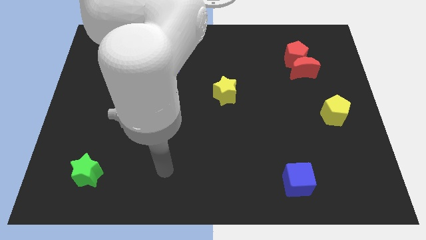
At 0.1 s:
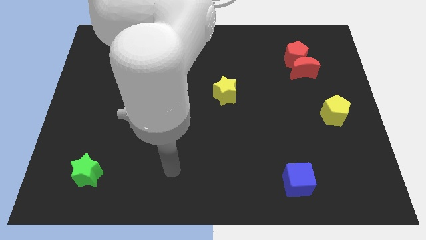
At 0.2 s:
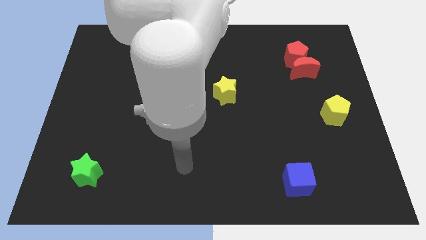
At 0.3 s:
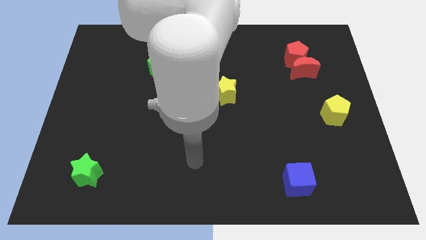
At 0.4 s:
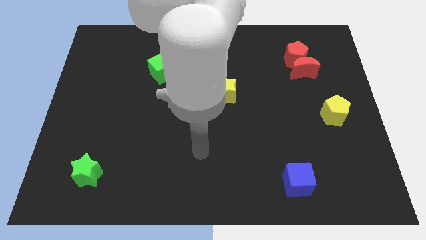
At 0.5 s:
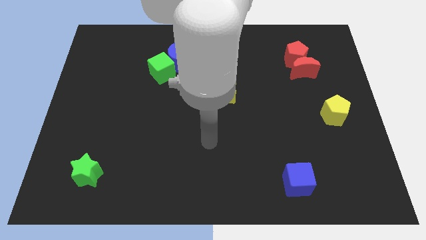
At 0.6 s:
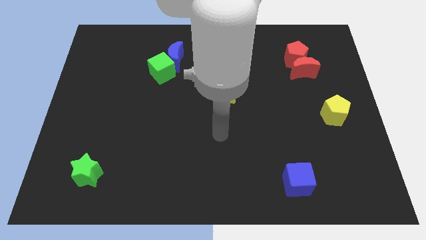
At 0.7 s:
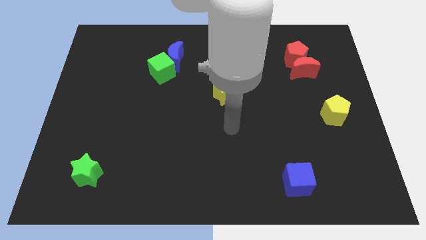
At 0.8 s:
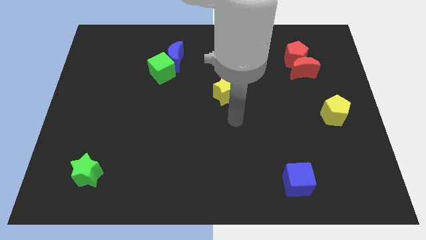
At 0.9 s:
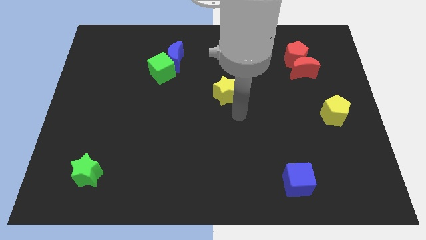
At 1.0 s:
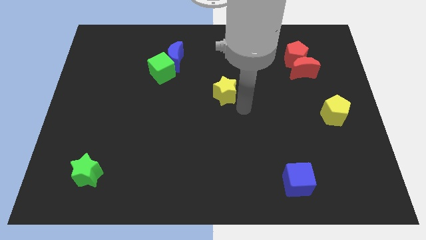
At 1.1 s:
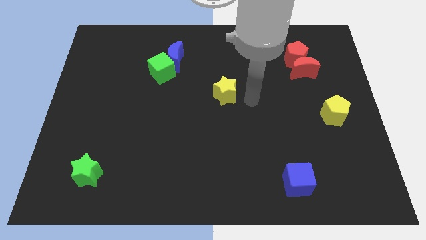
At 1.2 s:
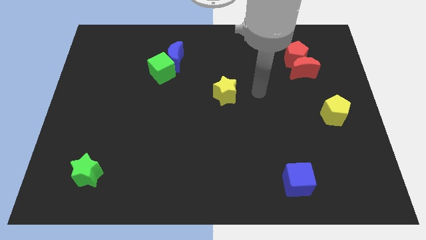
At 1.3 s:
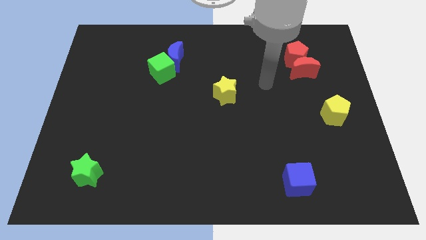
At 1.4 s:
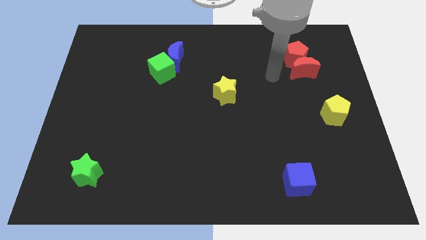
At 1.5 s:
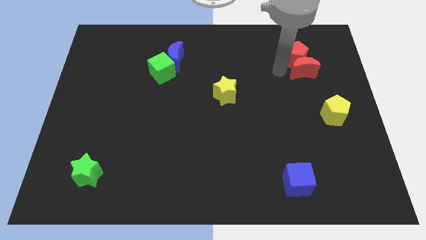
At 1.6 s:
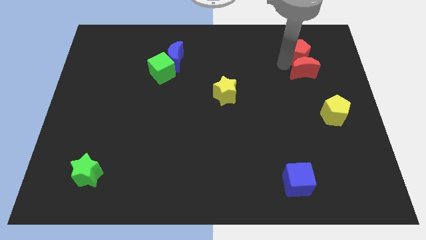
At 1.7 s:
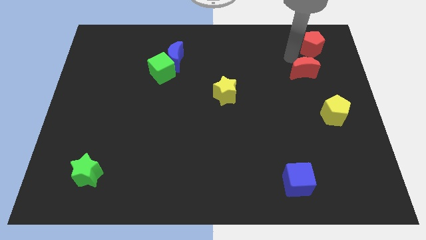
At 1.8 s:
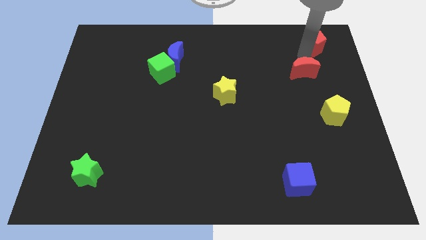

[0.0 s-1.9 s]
separate the red moon from the red pentagon

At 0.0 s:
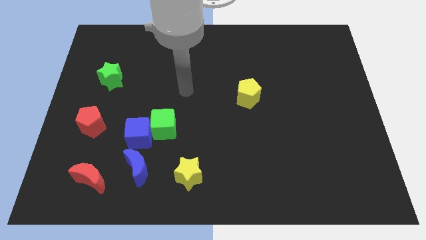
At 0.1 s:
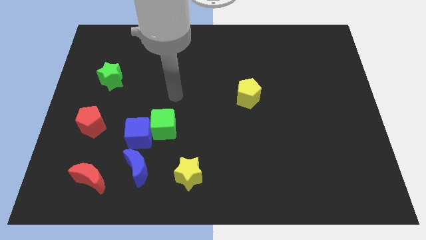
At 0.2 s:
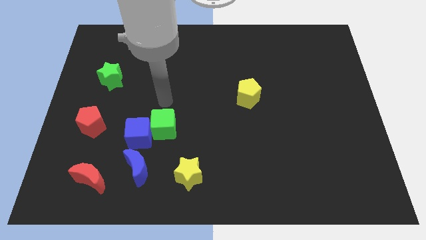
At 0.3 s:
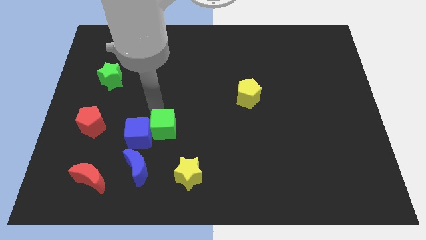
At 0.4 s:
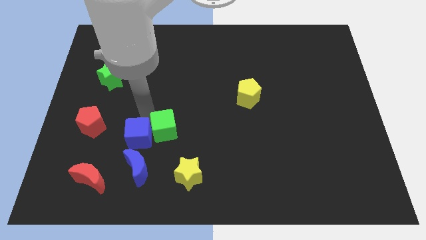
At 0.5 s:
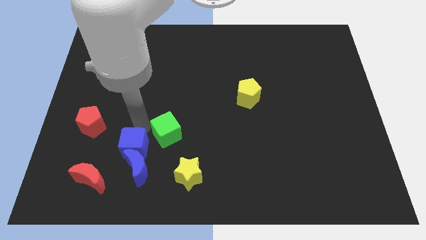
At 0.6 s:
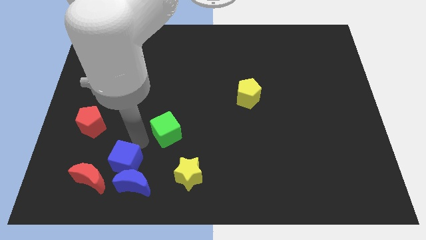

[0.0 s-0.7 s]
pull the green cube apart from the blue cube

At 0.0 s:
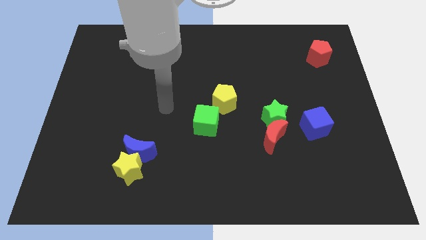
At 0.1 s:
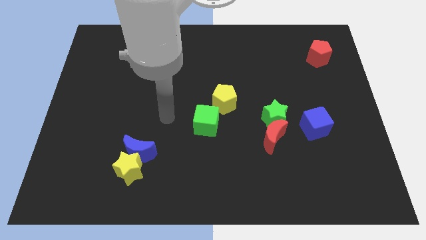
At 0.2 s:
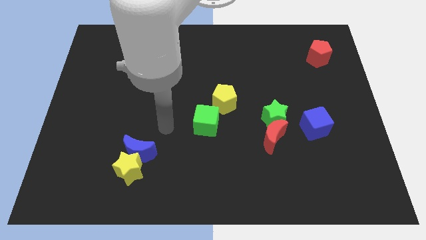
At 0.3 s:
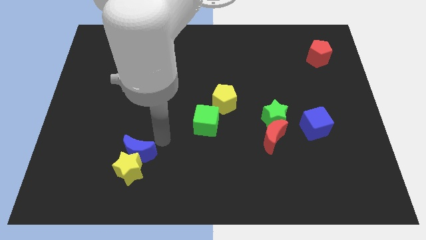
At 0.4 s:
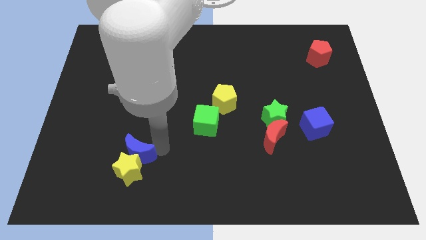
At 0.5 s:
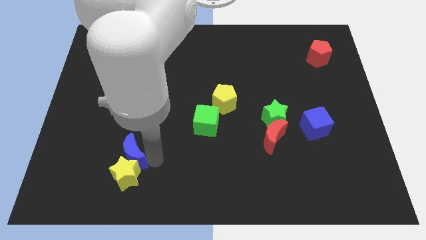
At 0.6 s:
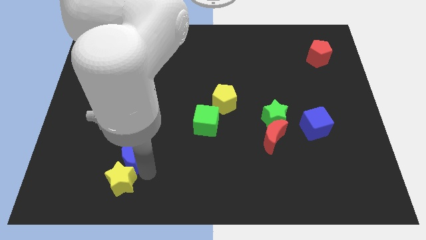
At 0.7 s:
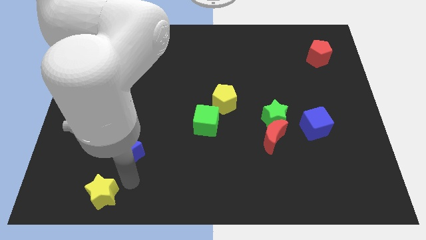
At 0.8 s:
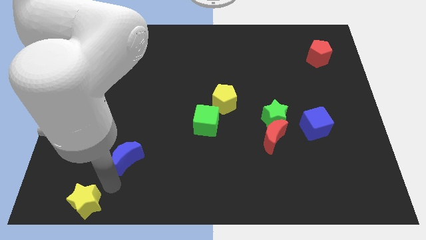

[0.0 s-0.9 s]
move the blue moon away from the yellow star

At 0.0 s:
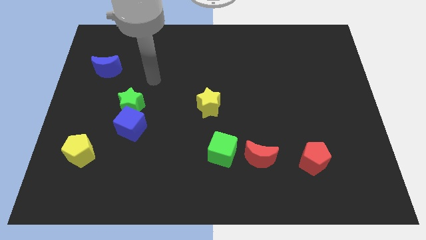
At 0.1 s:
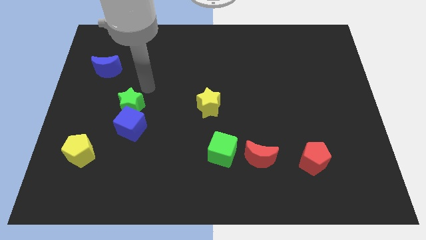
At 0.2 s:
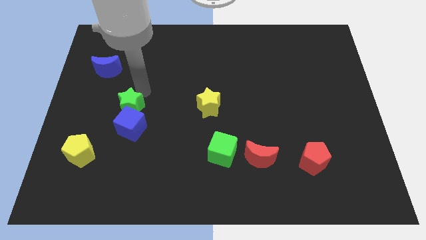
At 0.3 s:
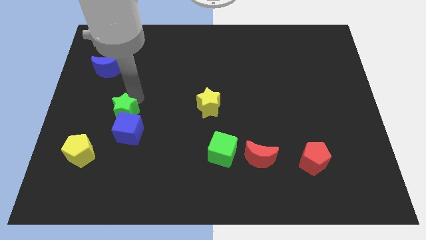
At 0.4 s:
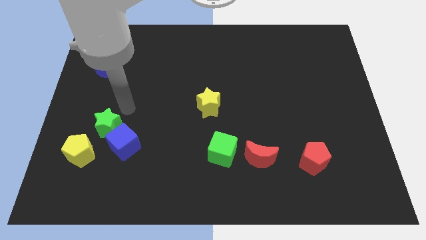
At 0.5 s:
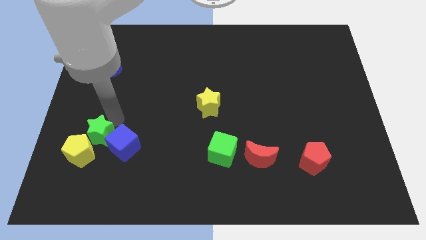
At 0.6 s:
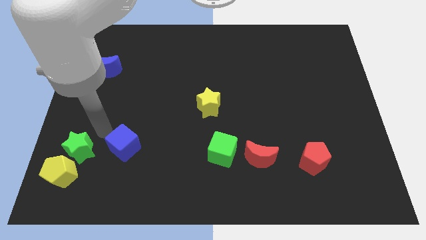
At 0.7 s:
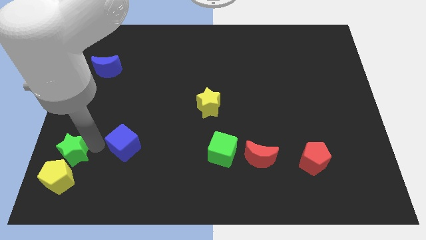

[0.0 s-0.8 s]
pull the blue cube apart from the green star

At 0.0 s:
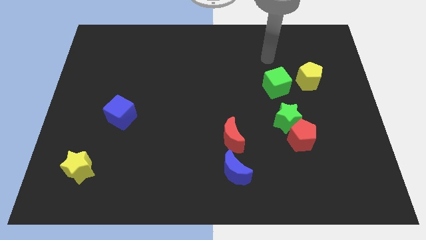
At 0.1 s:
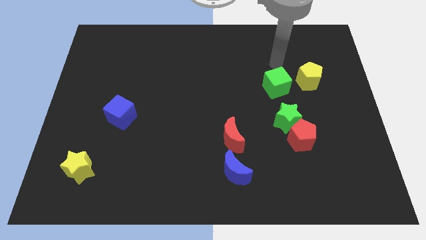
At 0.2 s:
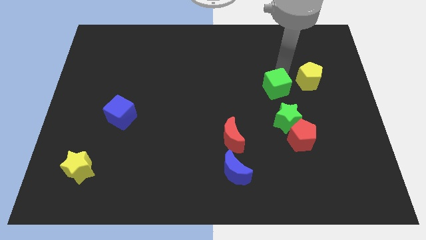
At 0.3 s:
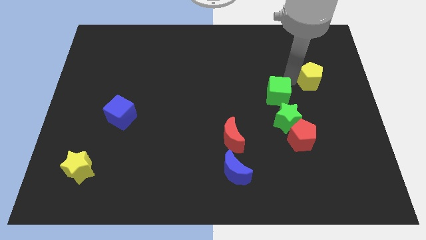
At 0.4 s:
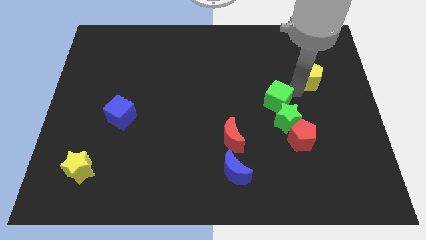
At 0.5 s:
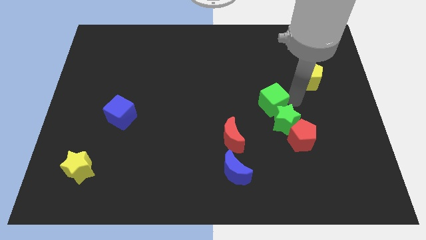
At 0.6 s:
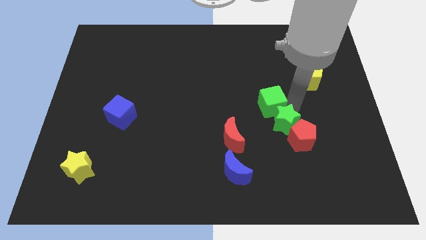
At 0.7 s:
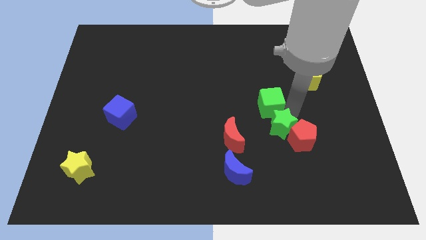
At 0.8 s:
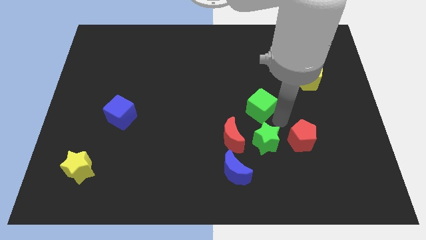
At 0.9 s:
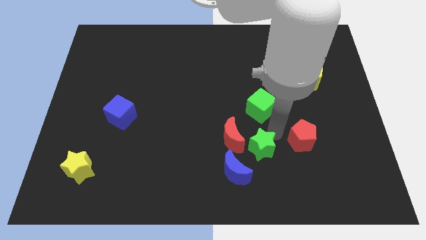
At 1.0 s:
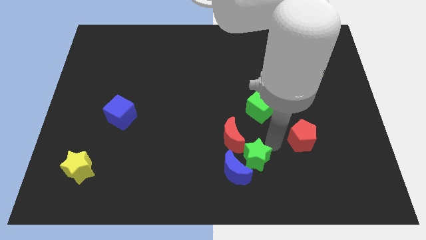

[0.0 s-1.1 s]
move the red pentagon away from the green star

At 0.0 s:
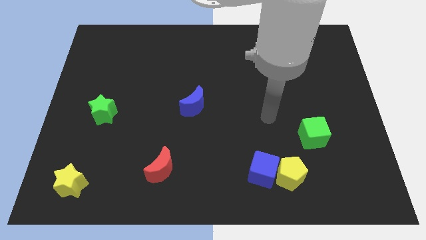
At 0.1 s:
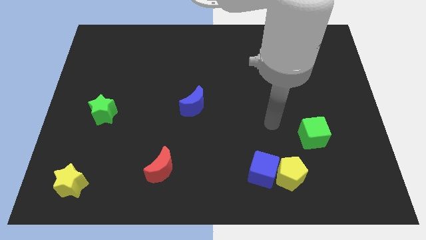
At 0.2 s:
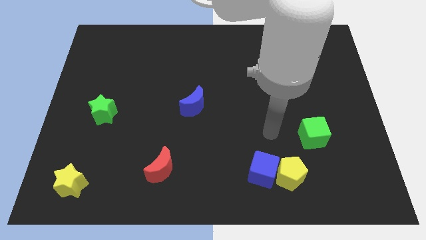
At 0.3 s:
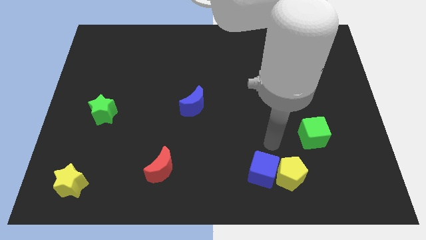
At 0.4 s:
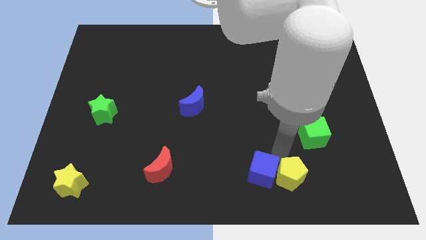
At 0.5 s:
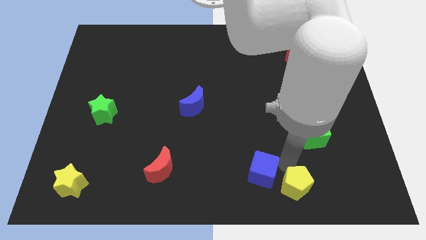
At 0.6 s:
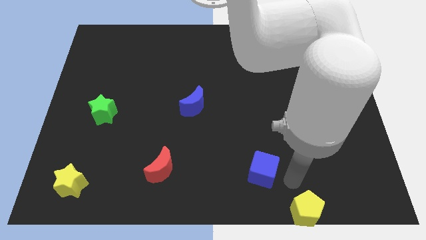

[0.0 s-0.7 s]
pull the blue cube apart from the yellow pentagon

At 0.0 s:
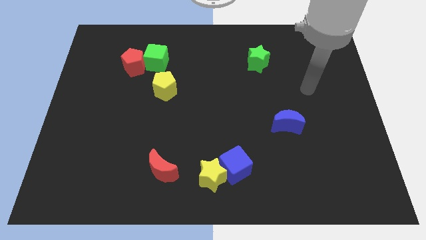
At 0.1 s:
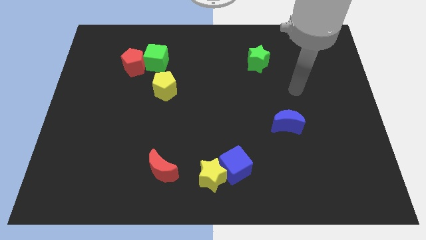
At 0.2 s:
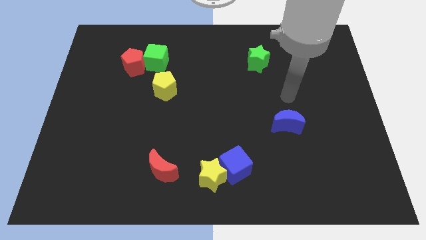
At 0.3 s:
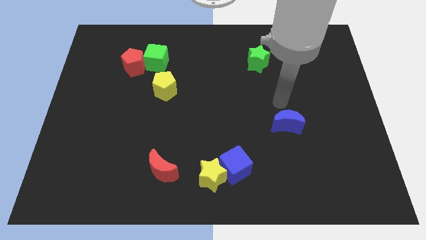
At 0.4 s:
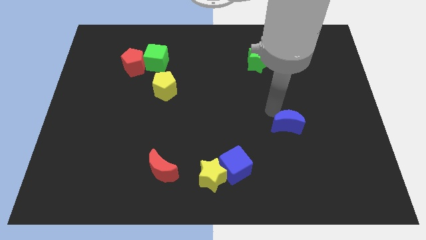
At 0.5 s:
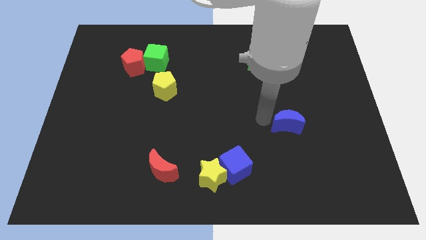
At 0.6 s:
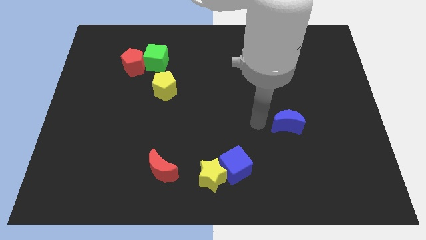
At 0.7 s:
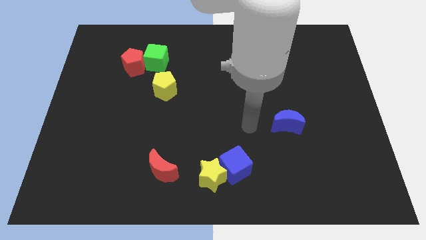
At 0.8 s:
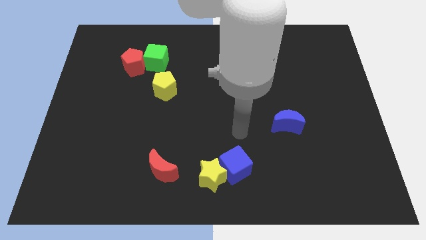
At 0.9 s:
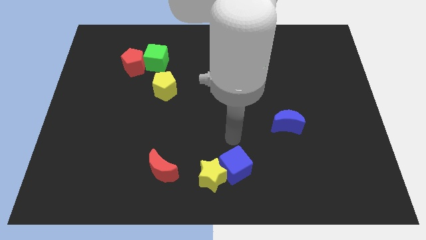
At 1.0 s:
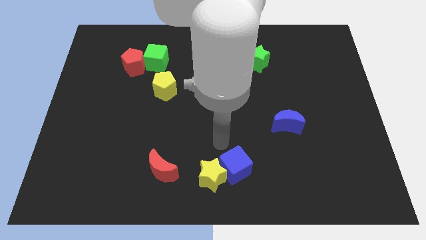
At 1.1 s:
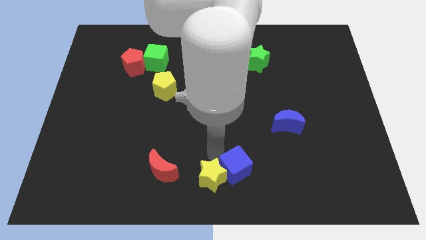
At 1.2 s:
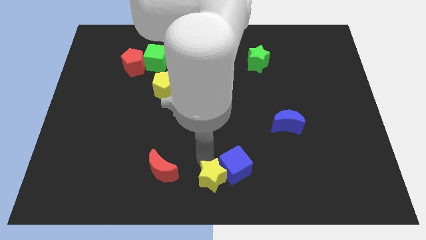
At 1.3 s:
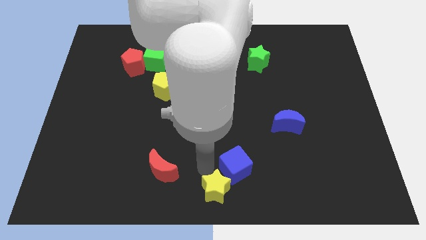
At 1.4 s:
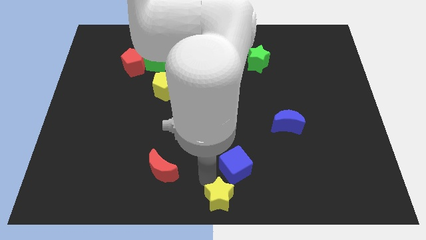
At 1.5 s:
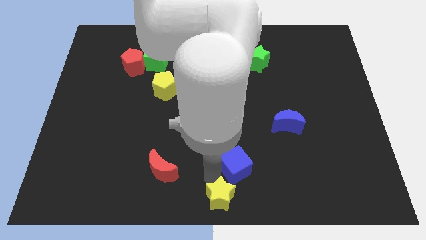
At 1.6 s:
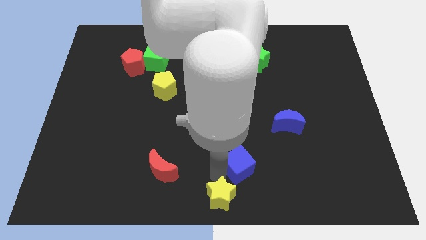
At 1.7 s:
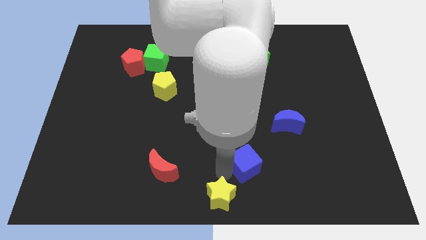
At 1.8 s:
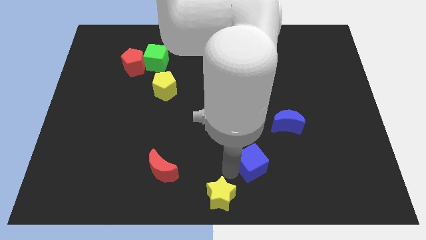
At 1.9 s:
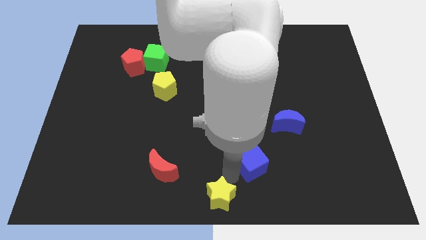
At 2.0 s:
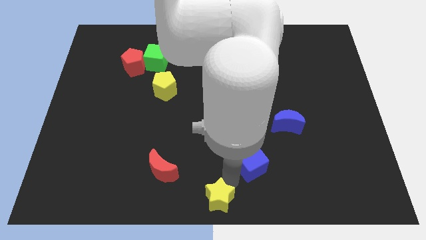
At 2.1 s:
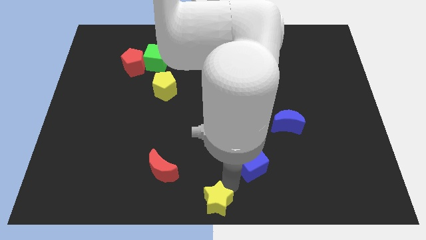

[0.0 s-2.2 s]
move the blue cube away from the yellow star

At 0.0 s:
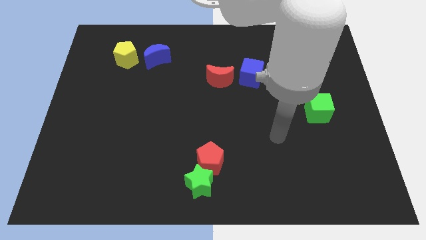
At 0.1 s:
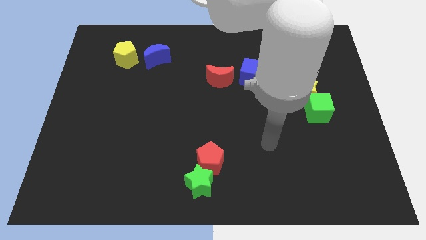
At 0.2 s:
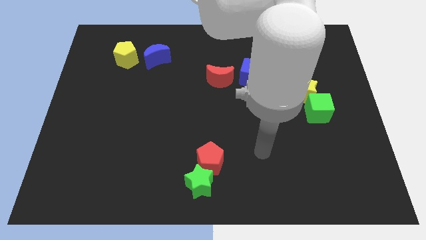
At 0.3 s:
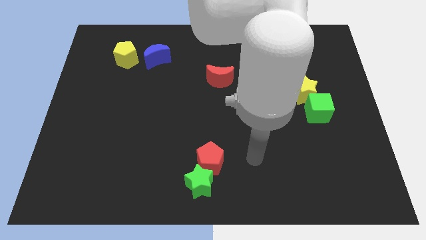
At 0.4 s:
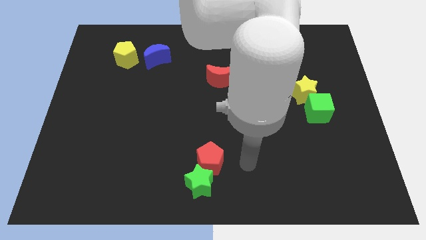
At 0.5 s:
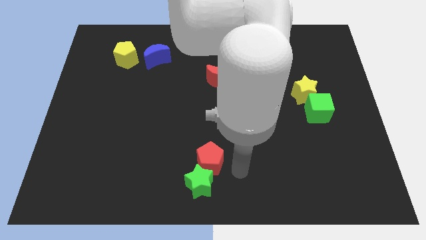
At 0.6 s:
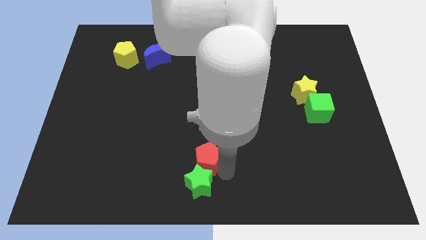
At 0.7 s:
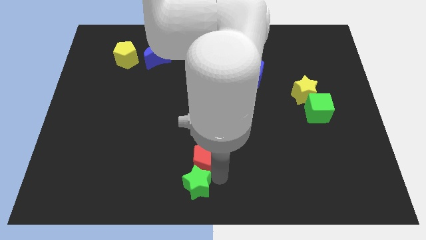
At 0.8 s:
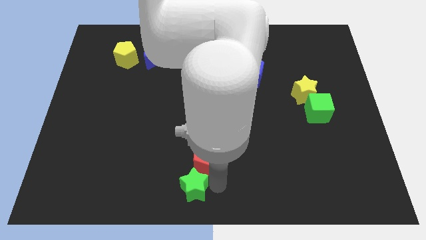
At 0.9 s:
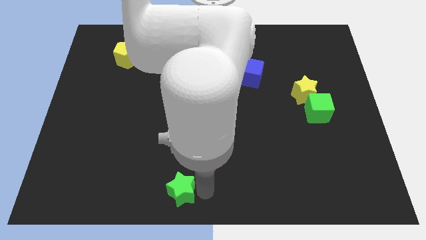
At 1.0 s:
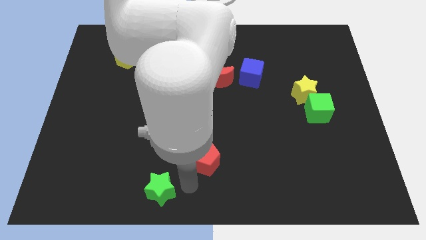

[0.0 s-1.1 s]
separate the red pentagon from the green star

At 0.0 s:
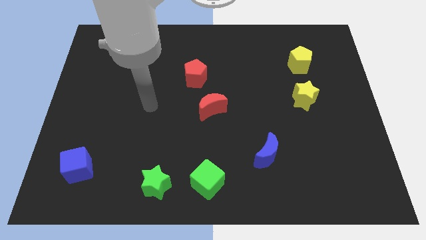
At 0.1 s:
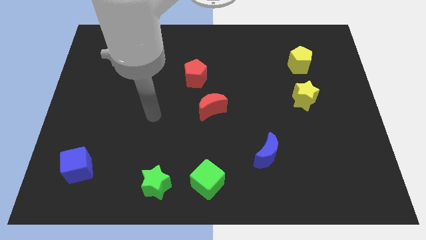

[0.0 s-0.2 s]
pull the green cube apart from the green star
